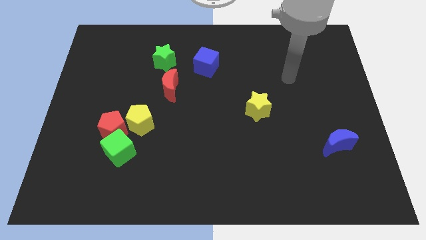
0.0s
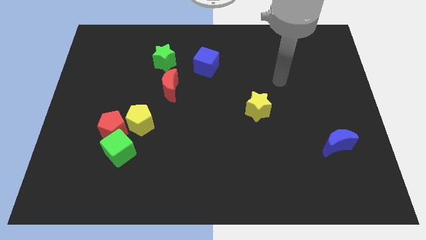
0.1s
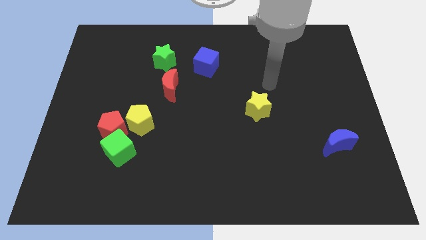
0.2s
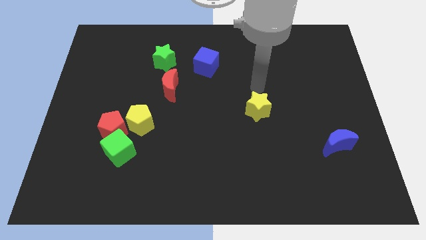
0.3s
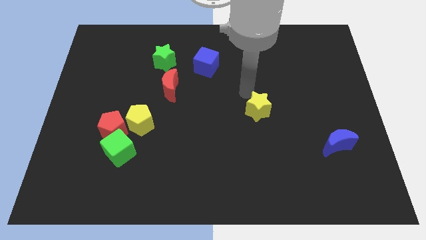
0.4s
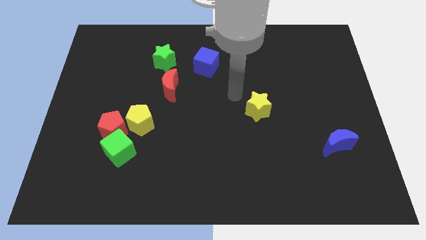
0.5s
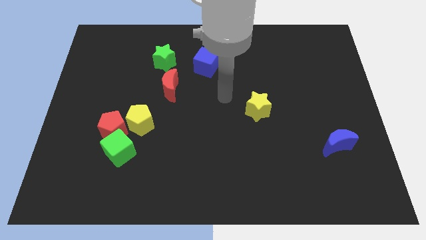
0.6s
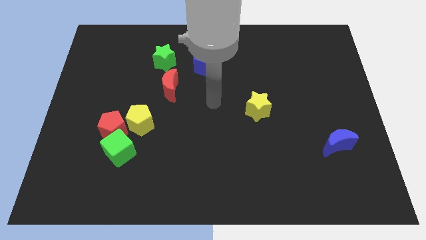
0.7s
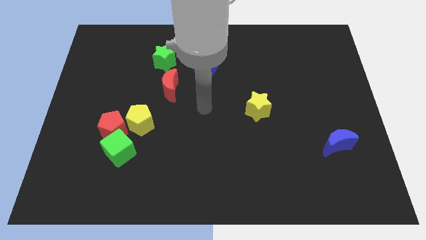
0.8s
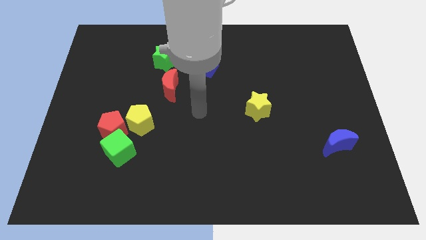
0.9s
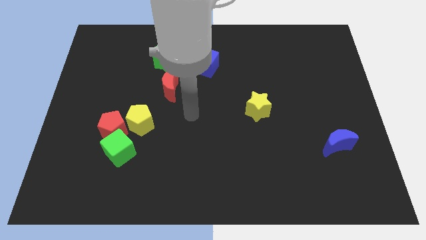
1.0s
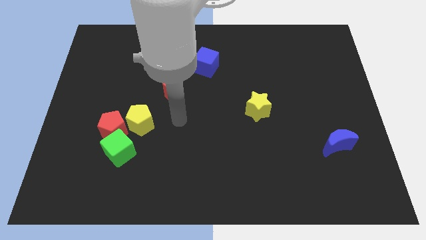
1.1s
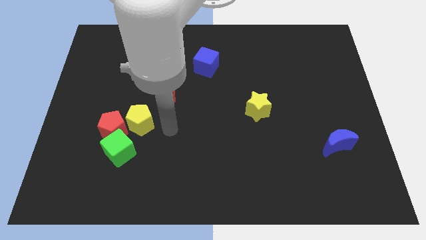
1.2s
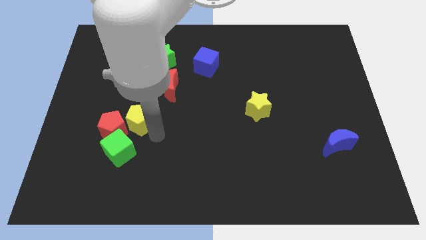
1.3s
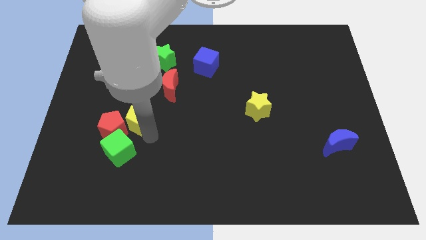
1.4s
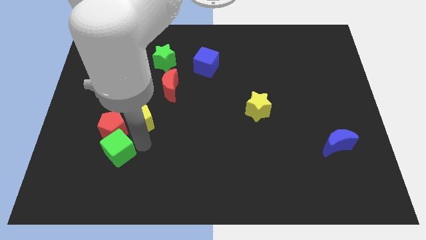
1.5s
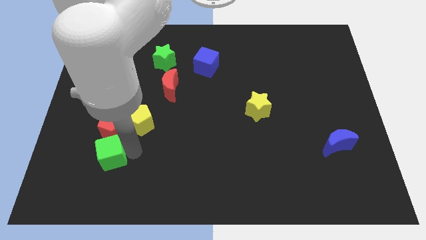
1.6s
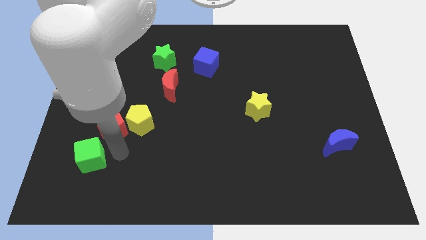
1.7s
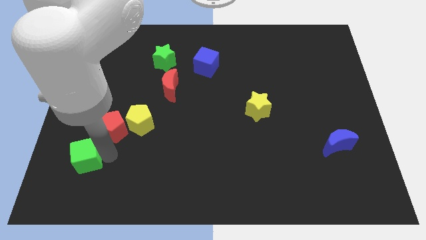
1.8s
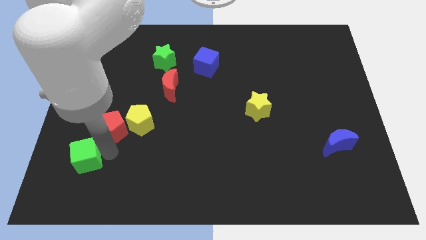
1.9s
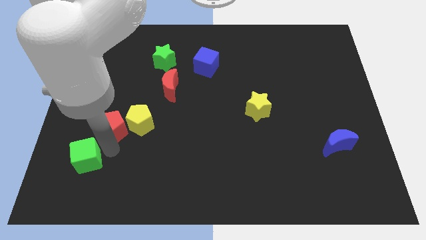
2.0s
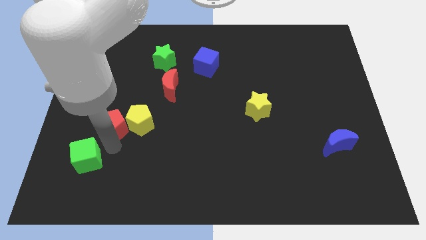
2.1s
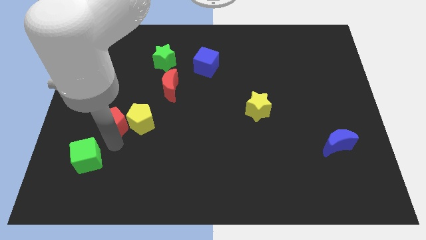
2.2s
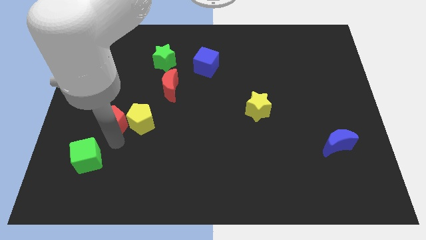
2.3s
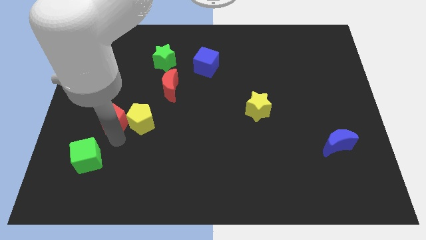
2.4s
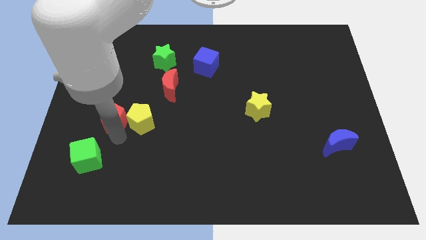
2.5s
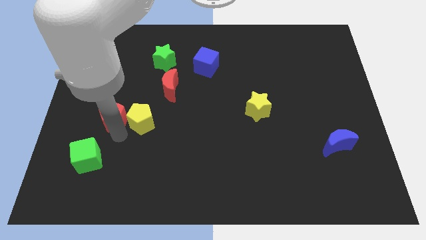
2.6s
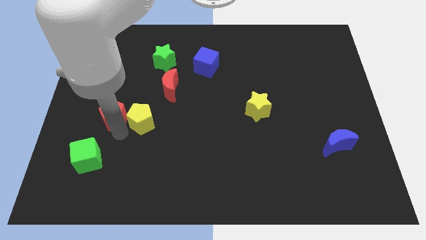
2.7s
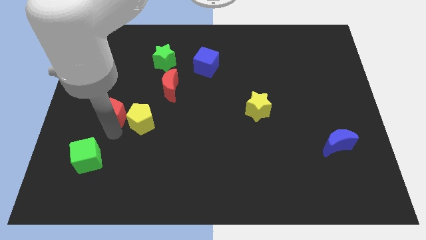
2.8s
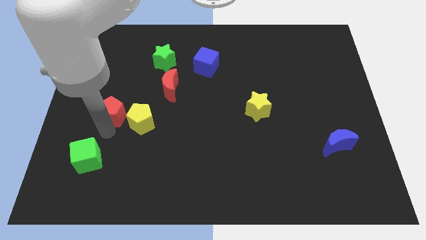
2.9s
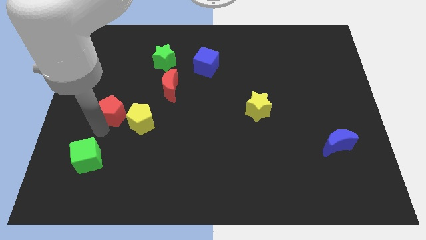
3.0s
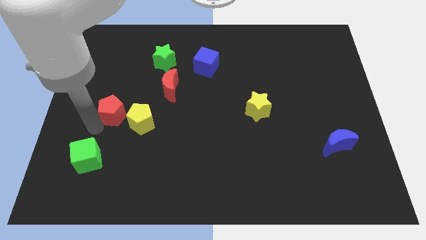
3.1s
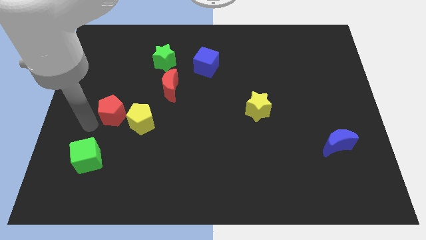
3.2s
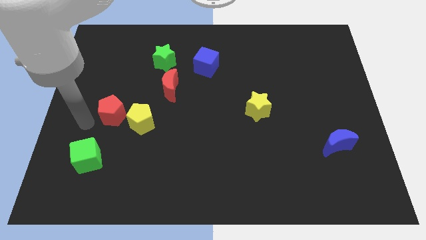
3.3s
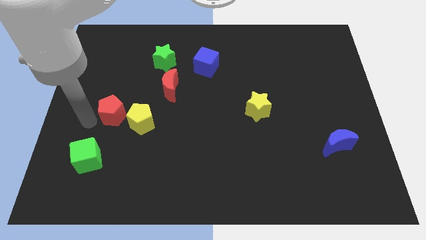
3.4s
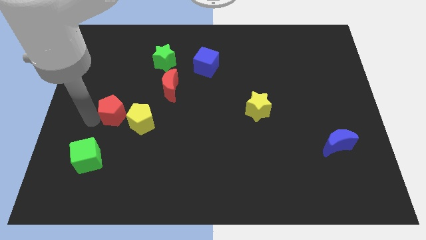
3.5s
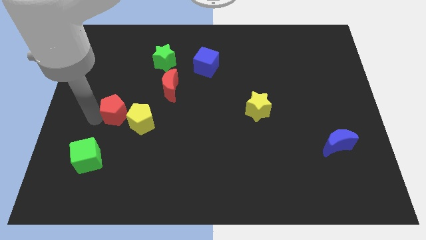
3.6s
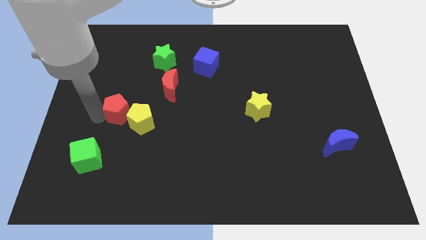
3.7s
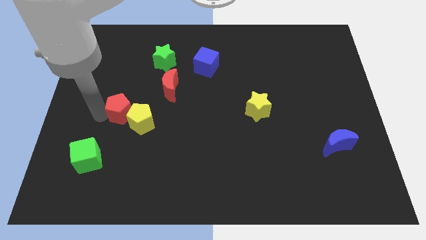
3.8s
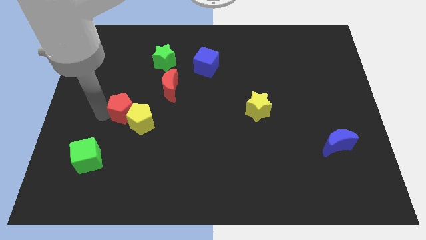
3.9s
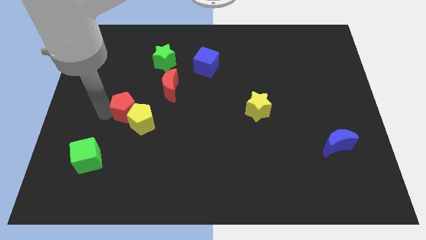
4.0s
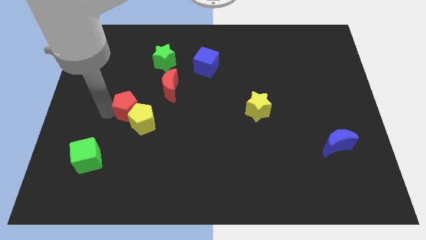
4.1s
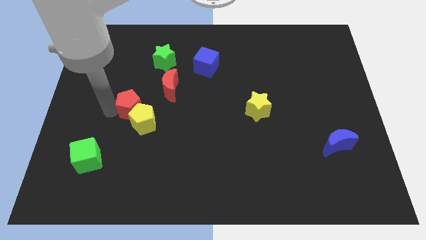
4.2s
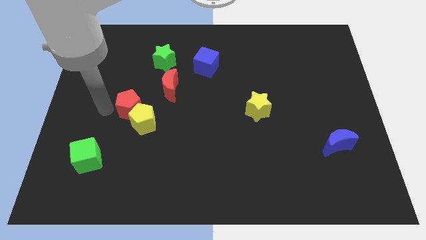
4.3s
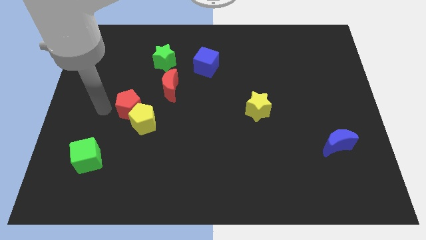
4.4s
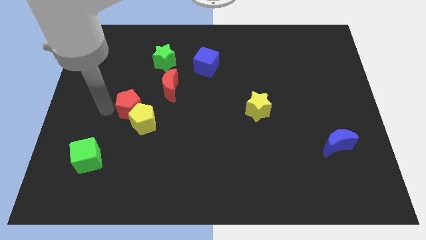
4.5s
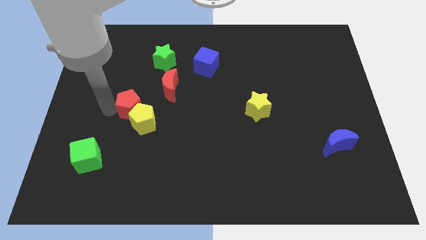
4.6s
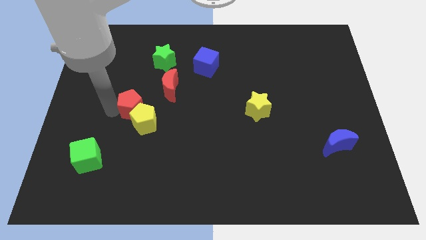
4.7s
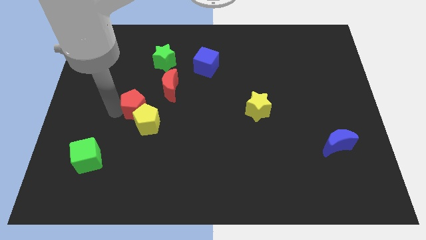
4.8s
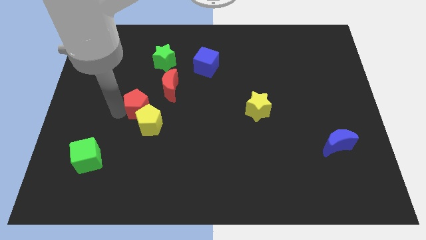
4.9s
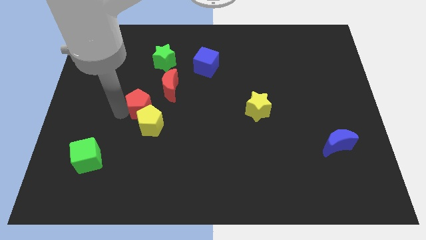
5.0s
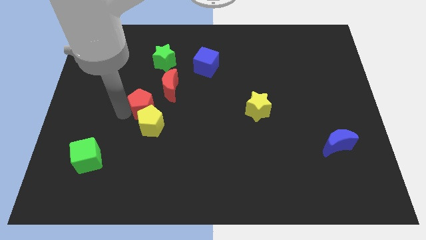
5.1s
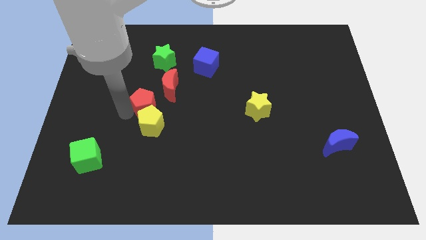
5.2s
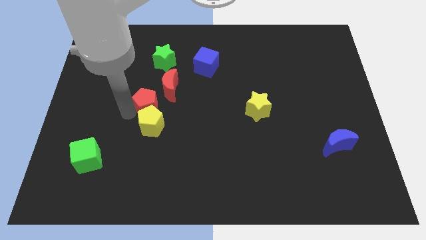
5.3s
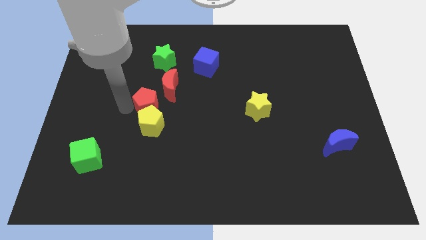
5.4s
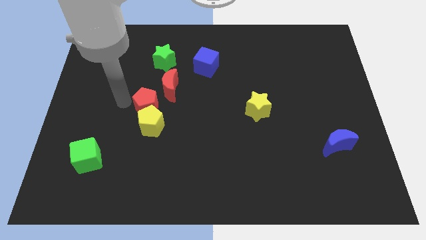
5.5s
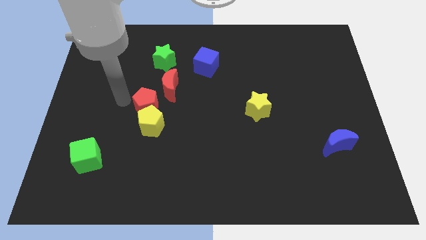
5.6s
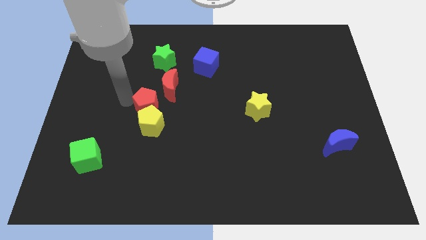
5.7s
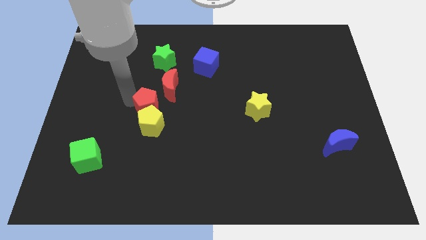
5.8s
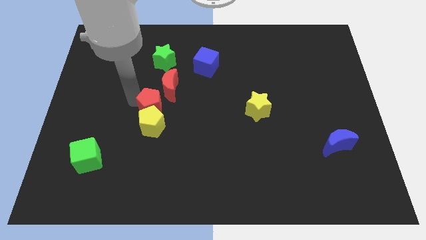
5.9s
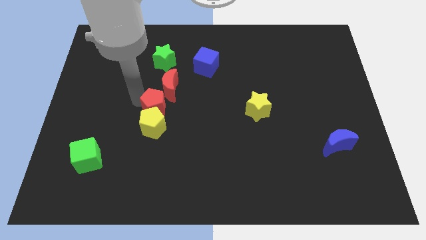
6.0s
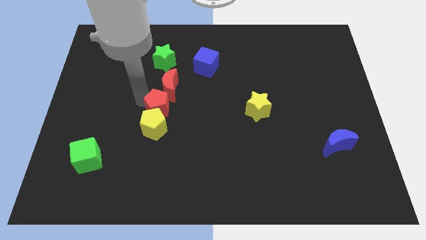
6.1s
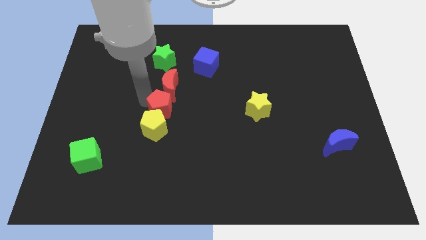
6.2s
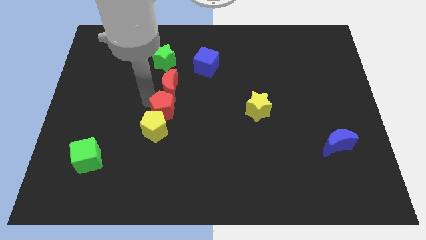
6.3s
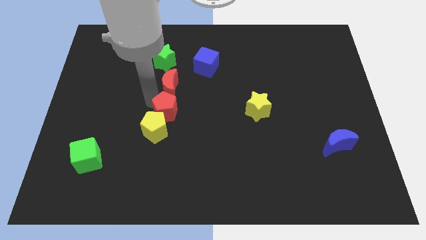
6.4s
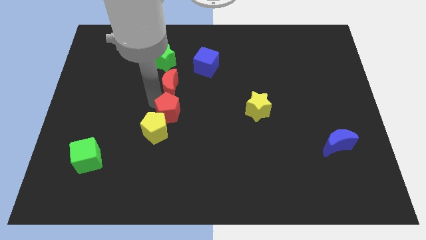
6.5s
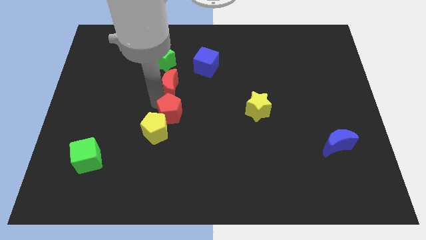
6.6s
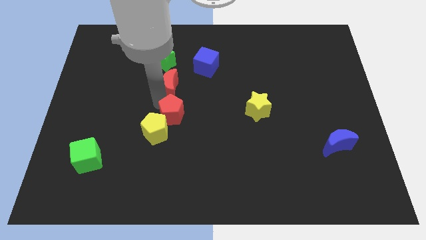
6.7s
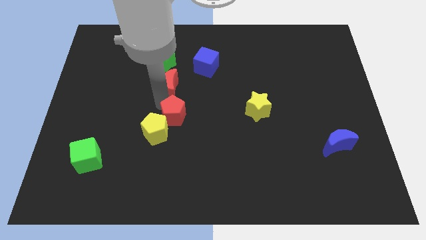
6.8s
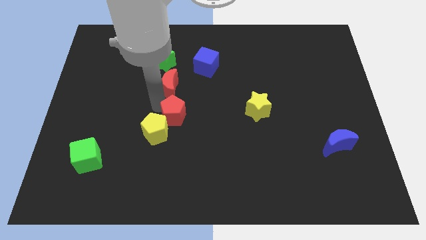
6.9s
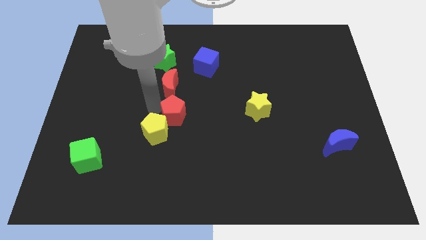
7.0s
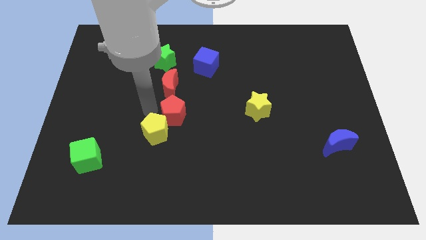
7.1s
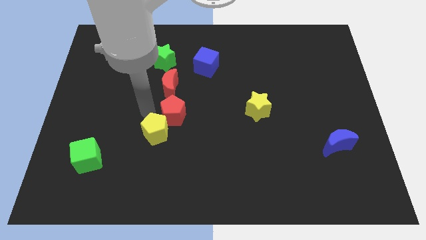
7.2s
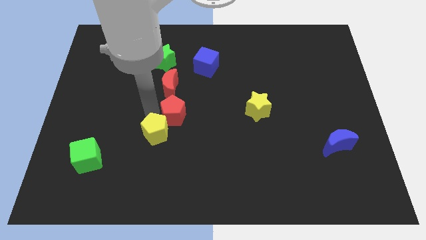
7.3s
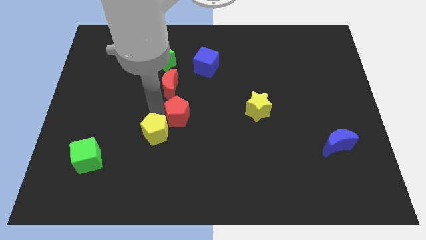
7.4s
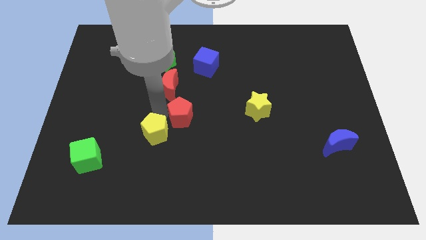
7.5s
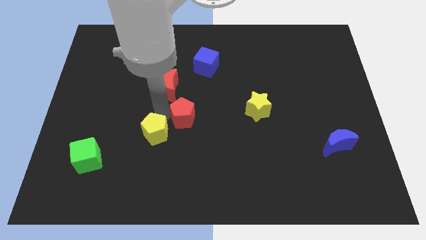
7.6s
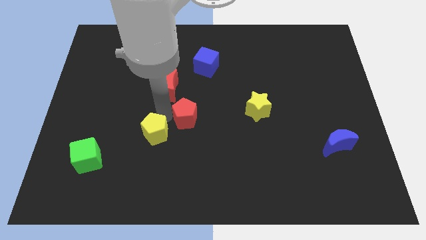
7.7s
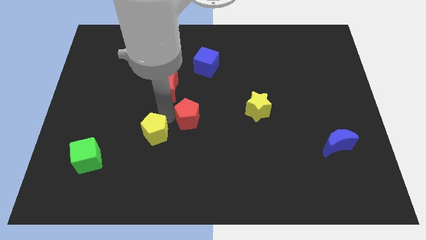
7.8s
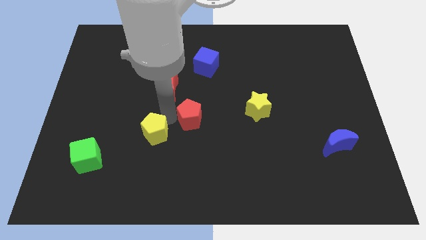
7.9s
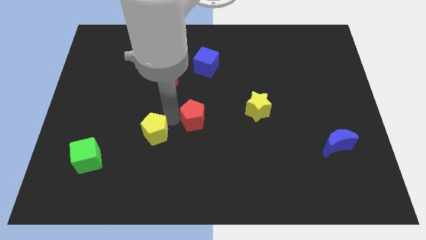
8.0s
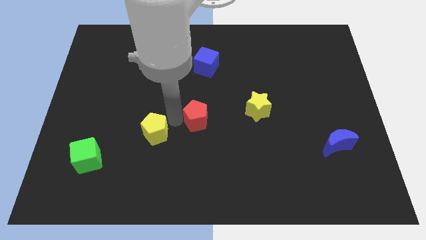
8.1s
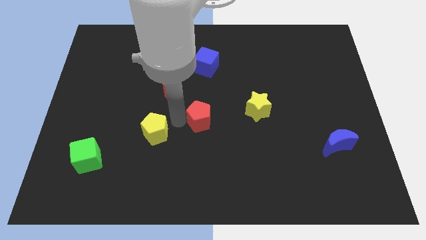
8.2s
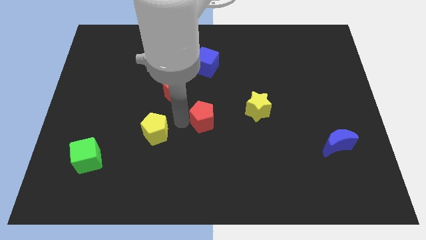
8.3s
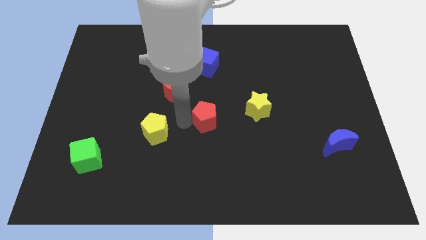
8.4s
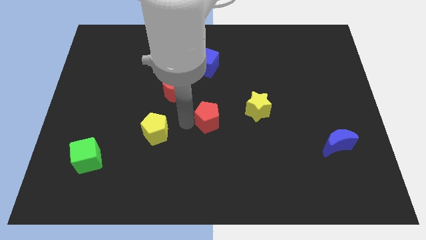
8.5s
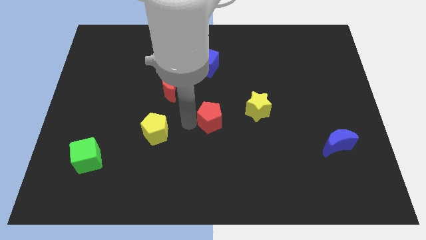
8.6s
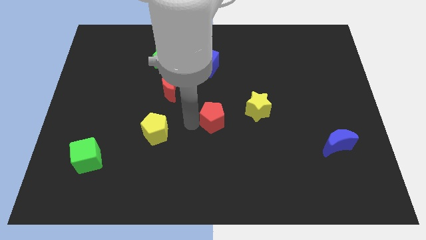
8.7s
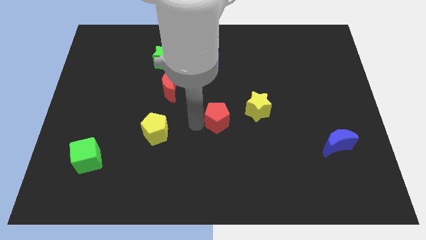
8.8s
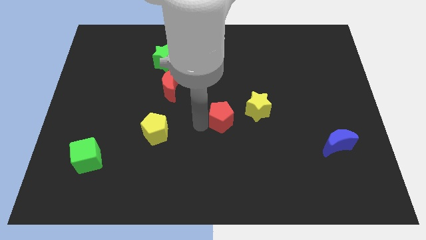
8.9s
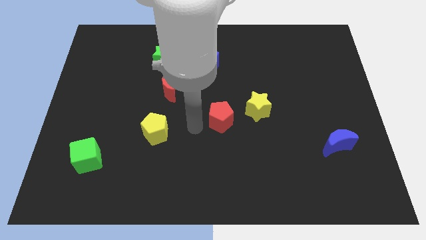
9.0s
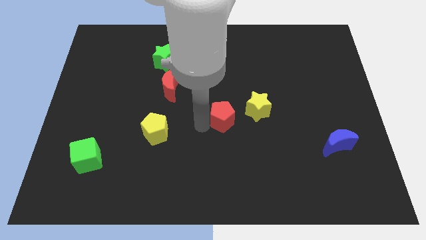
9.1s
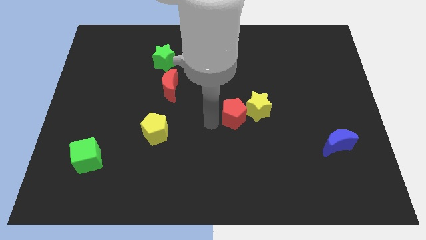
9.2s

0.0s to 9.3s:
slide the red pentagon next to the yellow star
